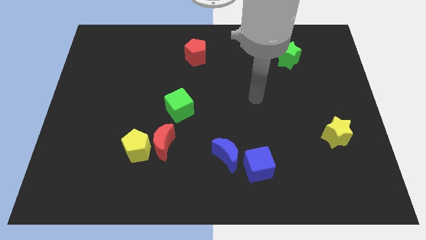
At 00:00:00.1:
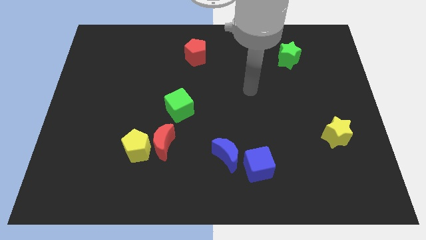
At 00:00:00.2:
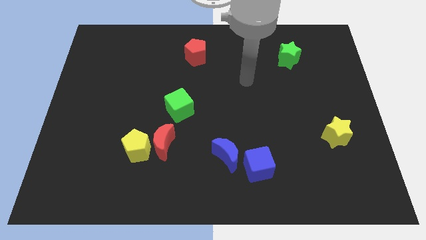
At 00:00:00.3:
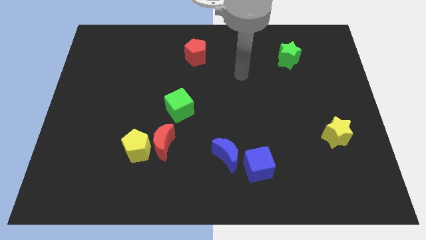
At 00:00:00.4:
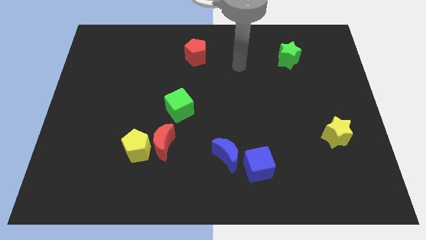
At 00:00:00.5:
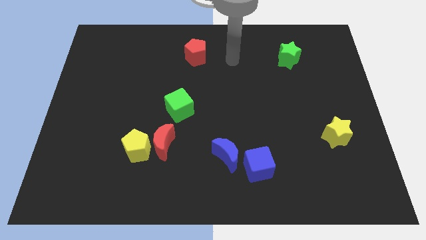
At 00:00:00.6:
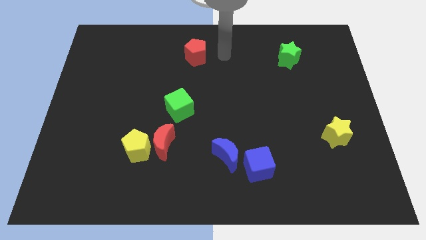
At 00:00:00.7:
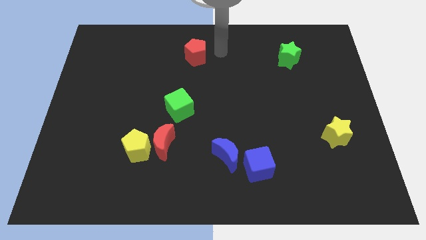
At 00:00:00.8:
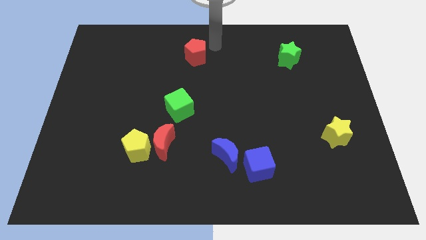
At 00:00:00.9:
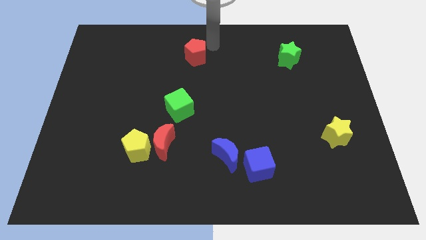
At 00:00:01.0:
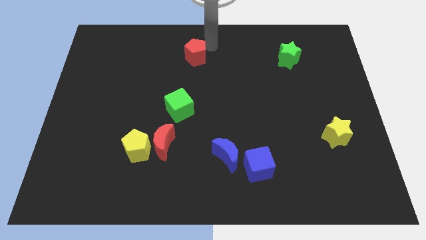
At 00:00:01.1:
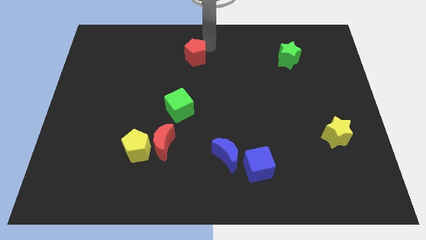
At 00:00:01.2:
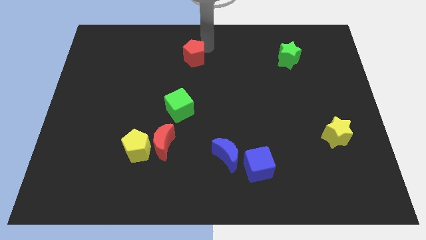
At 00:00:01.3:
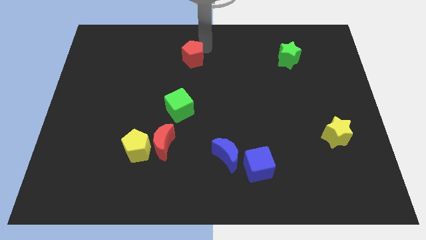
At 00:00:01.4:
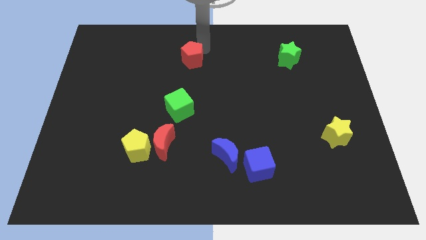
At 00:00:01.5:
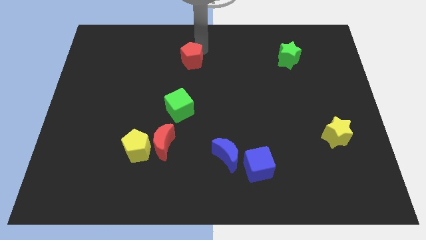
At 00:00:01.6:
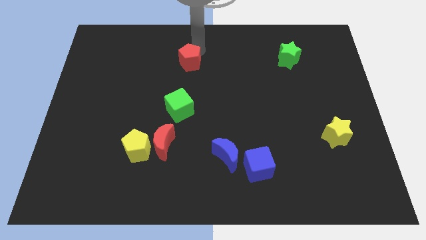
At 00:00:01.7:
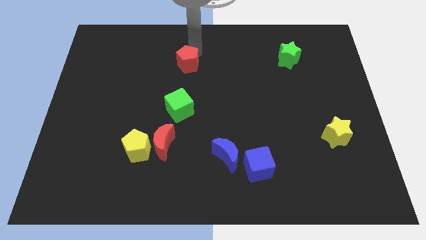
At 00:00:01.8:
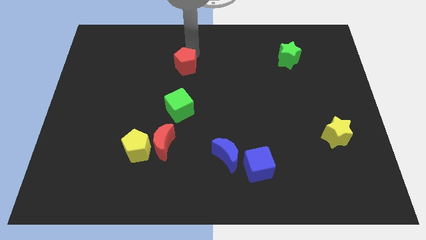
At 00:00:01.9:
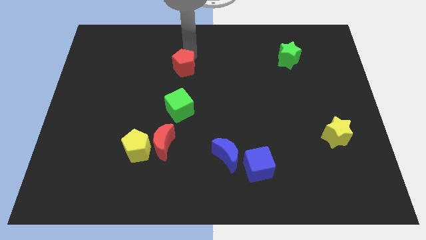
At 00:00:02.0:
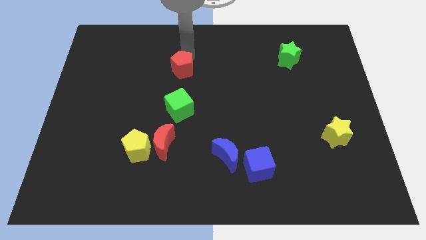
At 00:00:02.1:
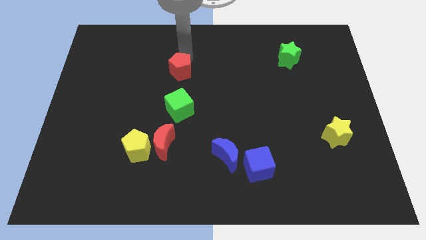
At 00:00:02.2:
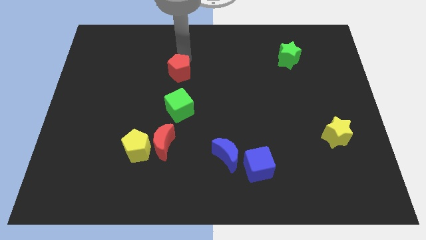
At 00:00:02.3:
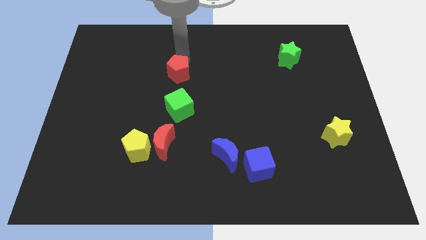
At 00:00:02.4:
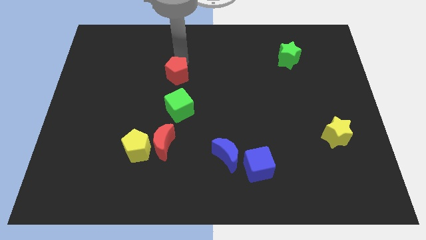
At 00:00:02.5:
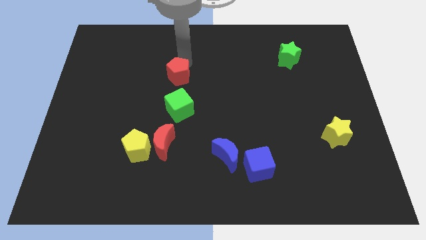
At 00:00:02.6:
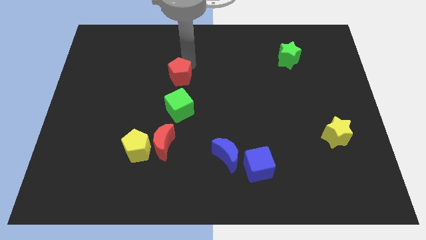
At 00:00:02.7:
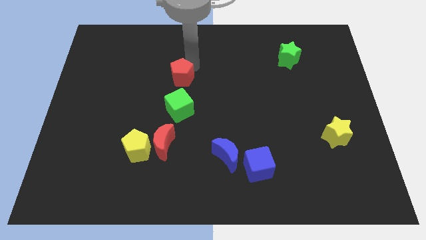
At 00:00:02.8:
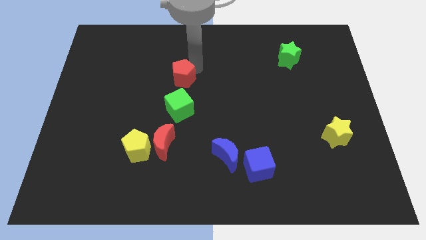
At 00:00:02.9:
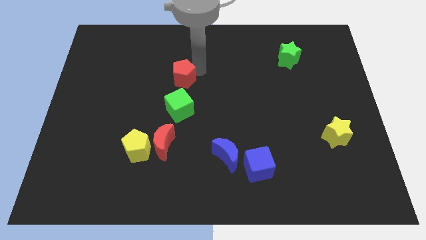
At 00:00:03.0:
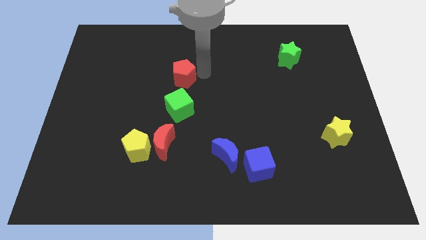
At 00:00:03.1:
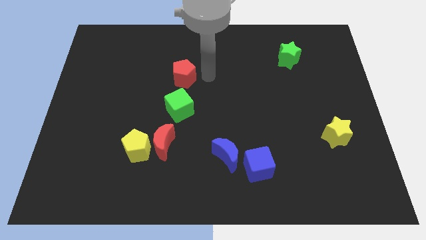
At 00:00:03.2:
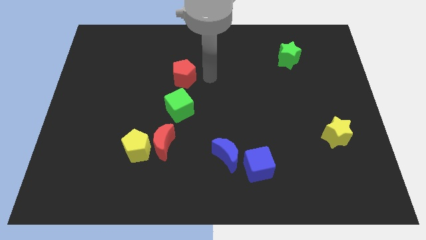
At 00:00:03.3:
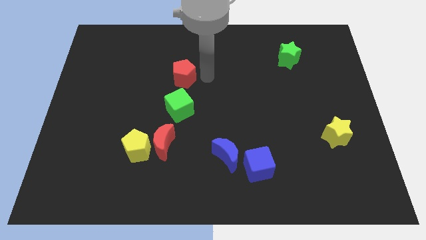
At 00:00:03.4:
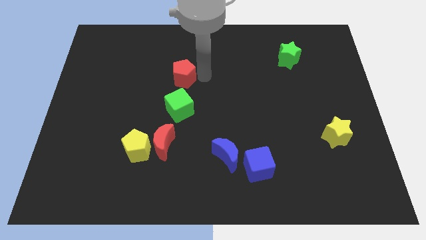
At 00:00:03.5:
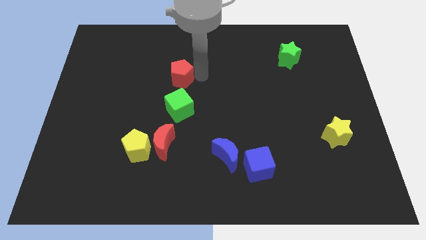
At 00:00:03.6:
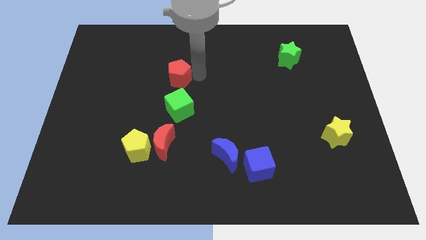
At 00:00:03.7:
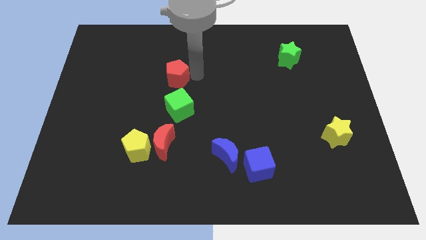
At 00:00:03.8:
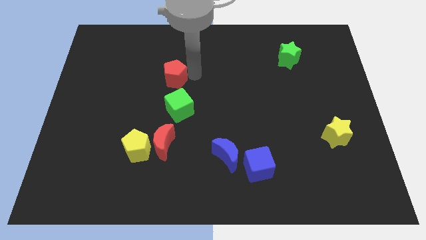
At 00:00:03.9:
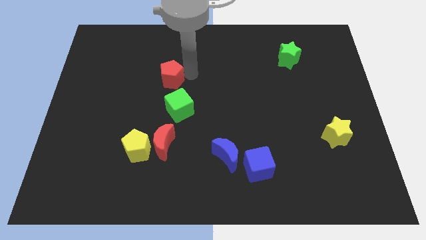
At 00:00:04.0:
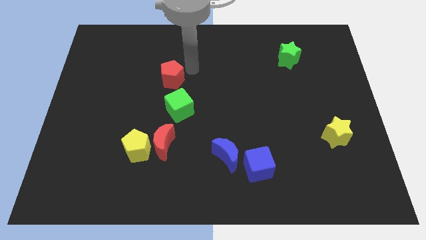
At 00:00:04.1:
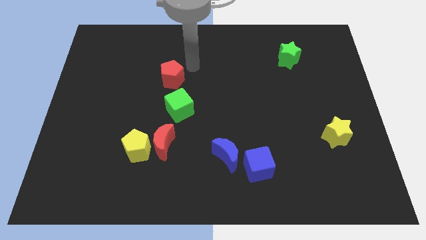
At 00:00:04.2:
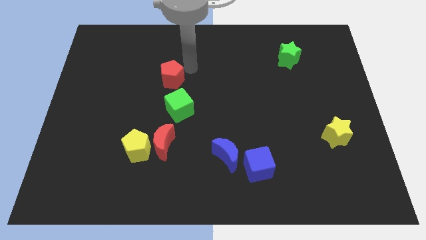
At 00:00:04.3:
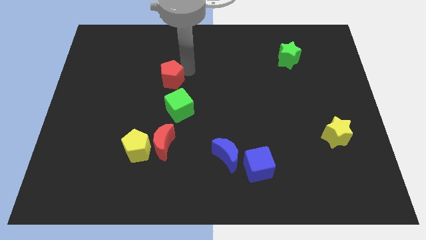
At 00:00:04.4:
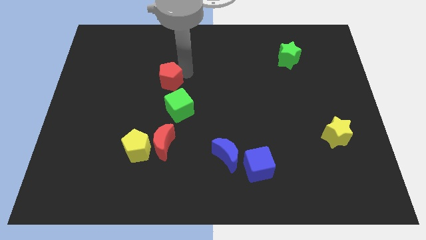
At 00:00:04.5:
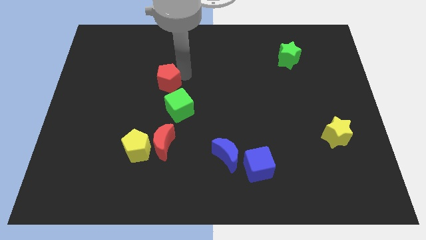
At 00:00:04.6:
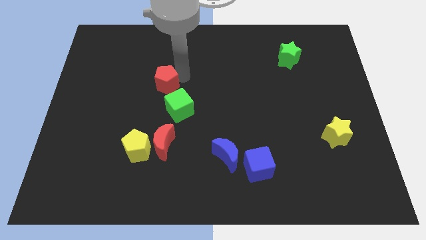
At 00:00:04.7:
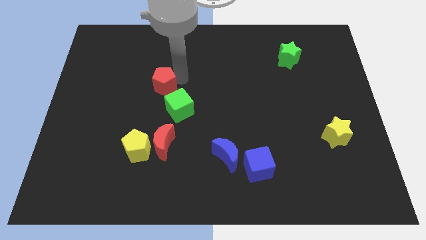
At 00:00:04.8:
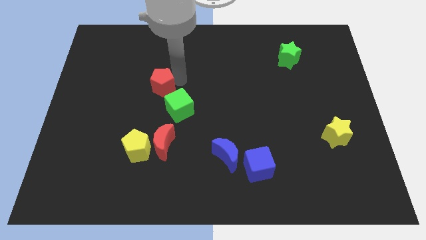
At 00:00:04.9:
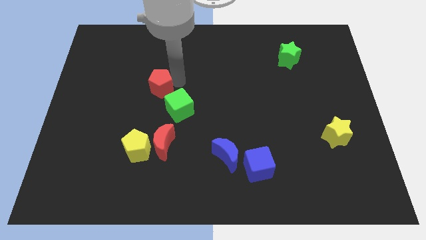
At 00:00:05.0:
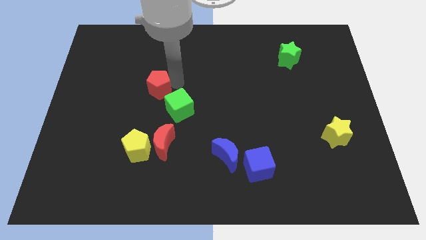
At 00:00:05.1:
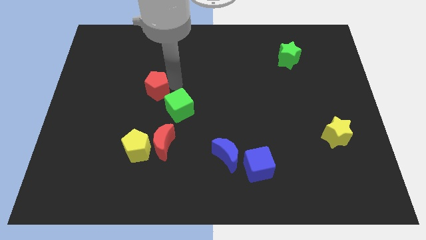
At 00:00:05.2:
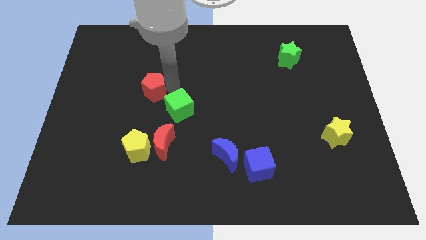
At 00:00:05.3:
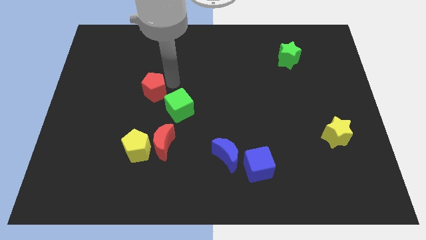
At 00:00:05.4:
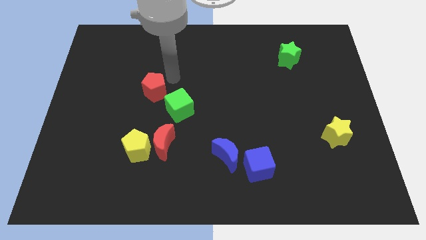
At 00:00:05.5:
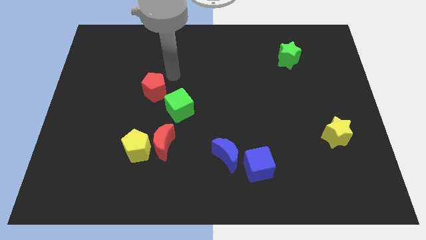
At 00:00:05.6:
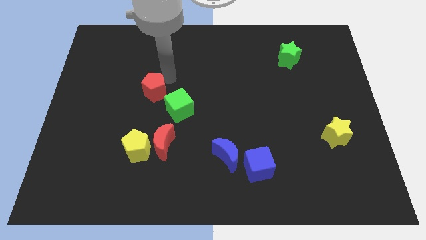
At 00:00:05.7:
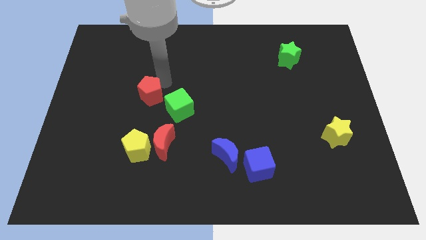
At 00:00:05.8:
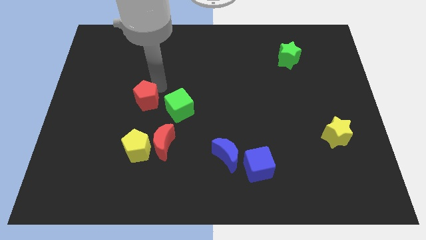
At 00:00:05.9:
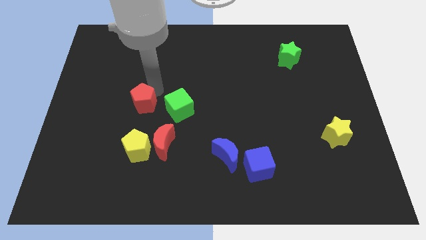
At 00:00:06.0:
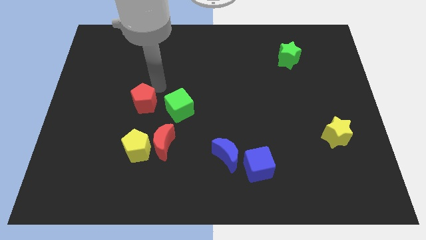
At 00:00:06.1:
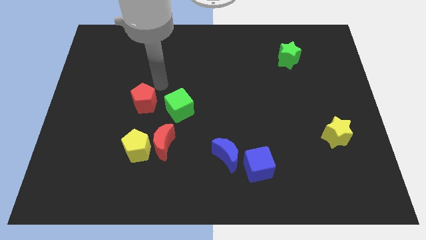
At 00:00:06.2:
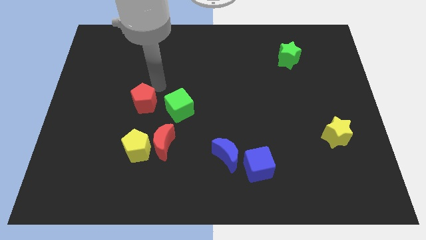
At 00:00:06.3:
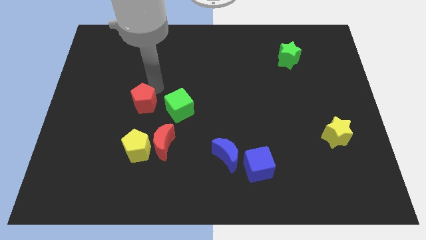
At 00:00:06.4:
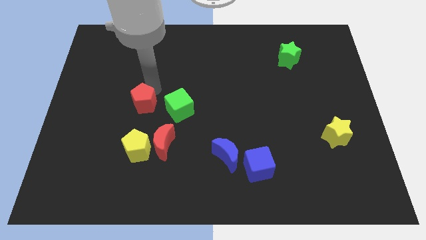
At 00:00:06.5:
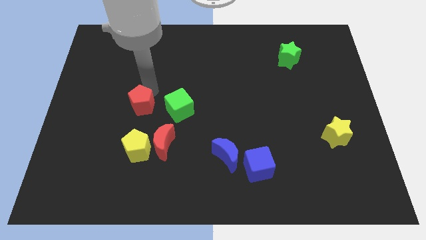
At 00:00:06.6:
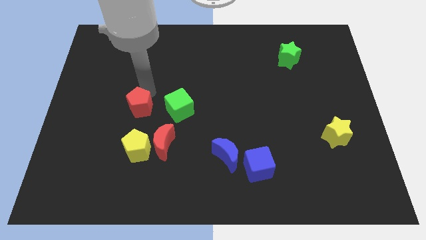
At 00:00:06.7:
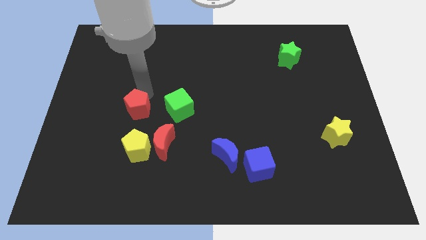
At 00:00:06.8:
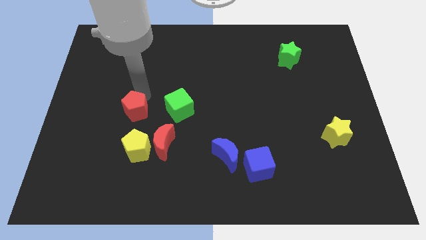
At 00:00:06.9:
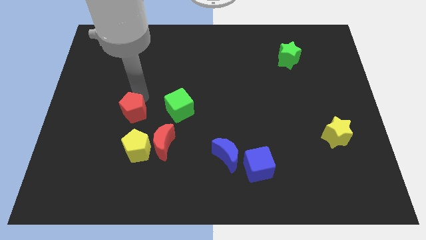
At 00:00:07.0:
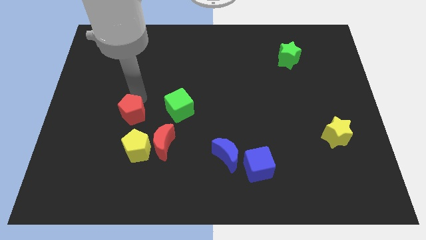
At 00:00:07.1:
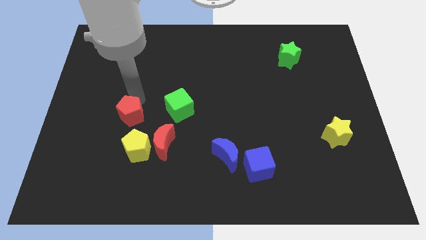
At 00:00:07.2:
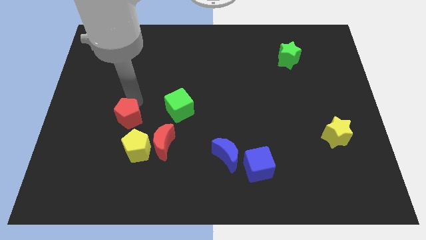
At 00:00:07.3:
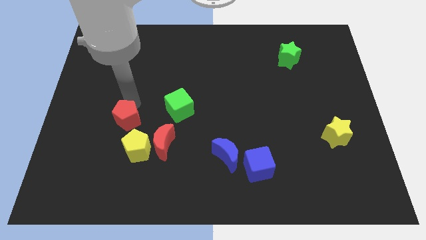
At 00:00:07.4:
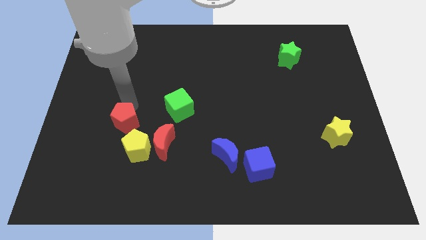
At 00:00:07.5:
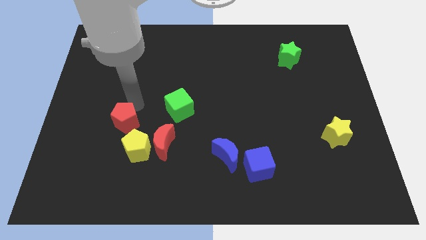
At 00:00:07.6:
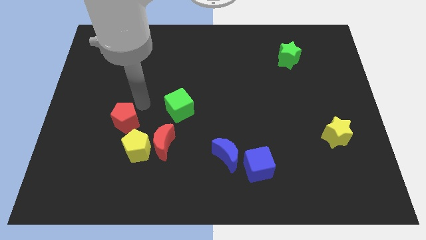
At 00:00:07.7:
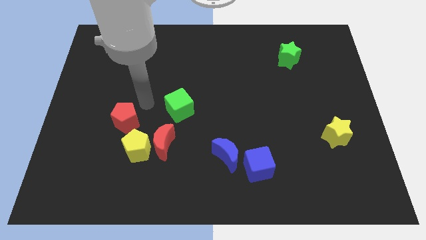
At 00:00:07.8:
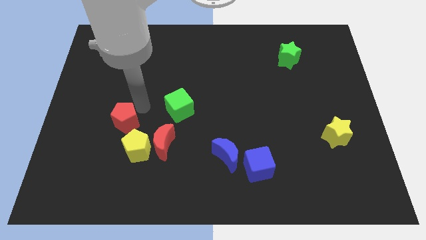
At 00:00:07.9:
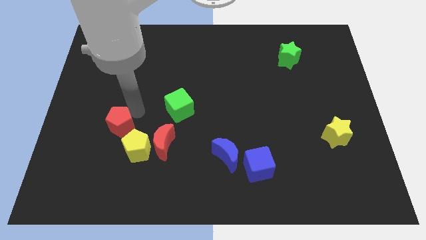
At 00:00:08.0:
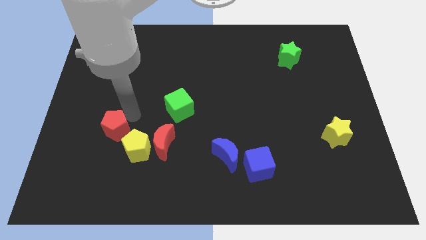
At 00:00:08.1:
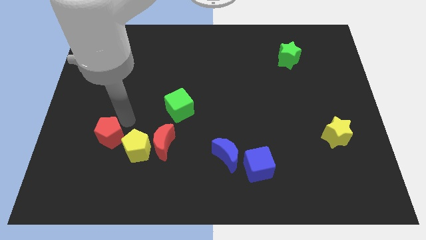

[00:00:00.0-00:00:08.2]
move the red pentagon just left of the yellow pentagon
